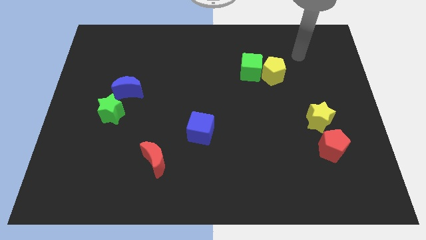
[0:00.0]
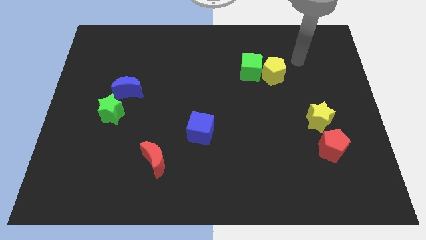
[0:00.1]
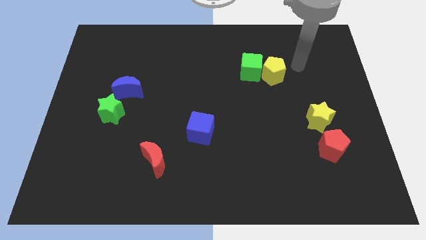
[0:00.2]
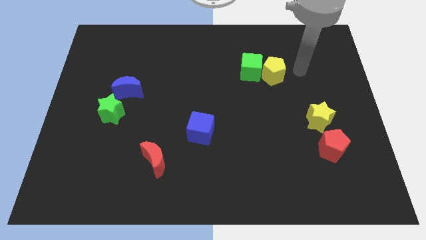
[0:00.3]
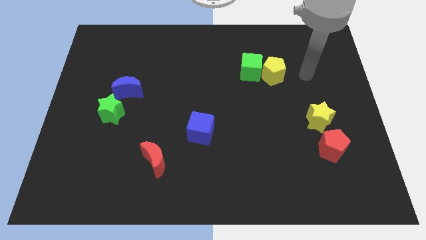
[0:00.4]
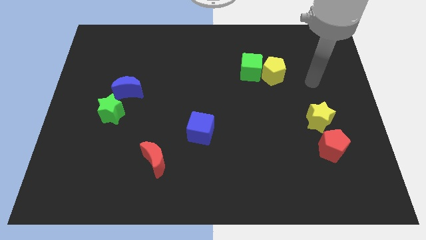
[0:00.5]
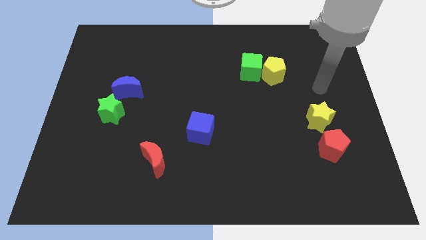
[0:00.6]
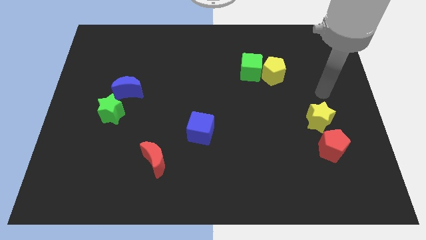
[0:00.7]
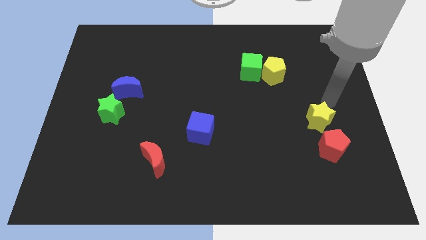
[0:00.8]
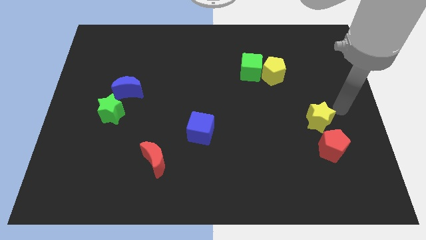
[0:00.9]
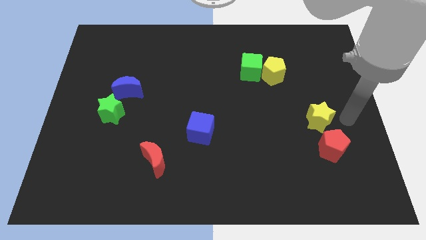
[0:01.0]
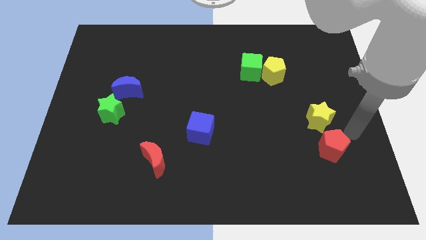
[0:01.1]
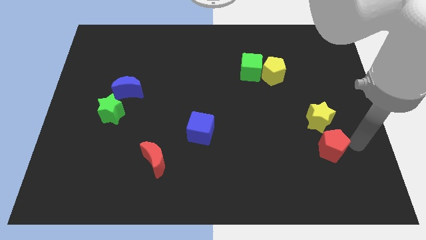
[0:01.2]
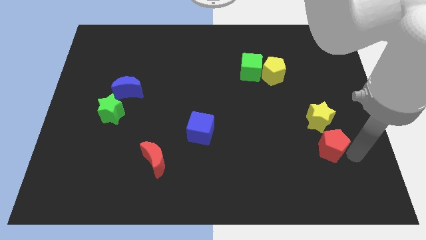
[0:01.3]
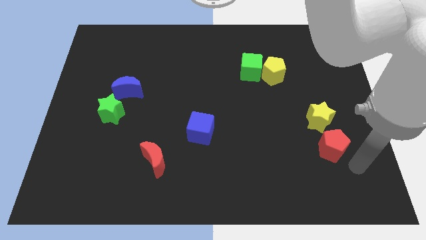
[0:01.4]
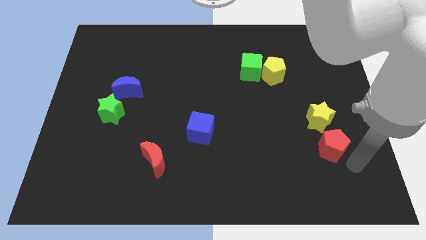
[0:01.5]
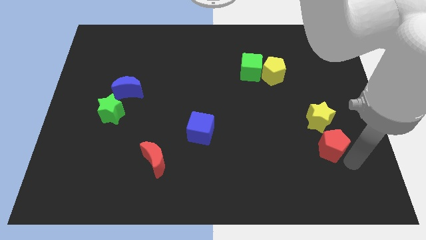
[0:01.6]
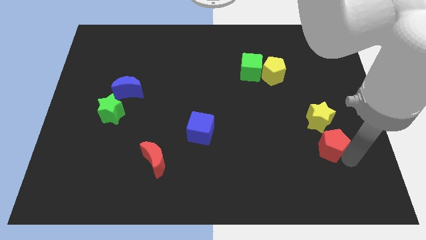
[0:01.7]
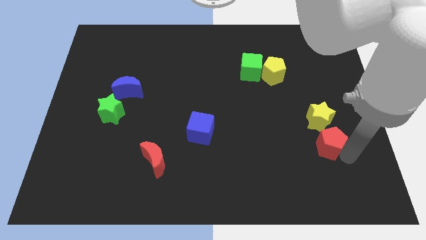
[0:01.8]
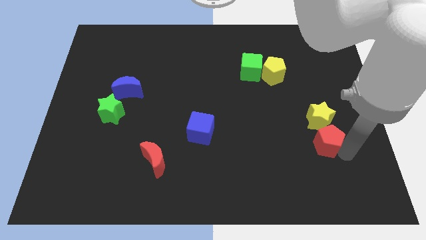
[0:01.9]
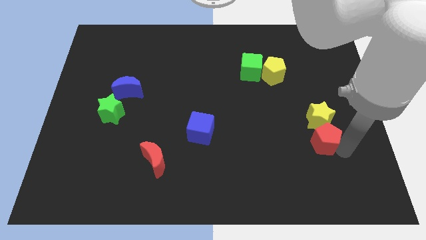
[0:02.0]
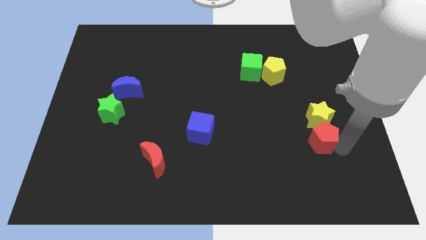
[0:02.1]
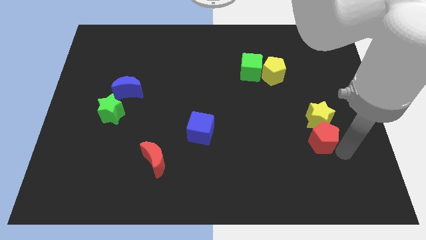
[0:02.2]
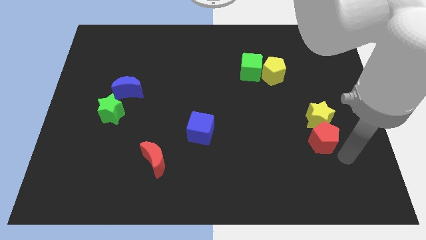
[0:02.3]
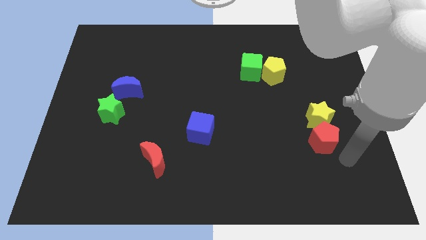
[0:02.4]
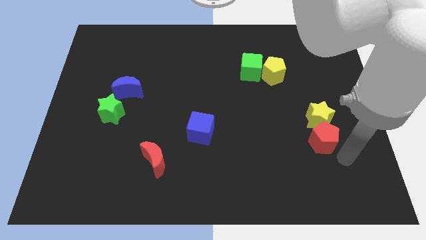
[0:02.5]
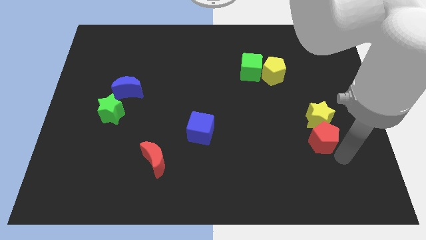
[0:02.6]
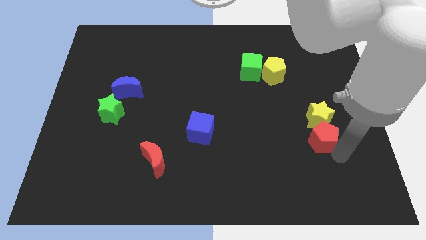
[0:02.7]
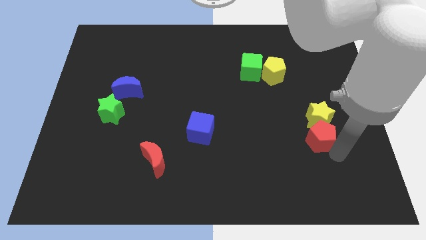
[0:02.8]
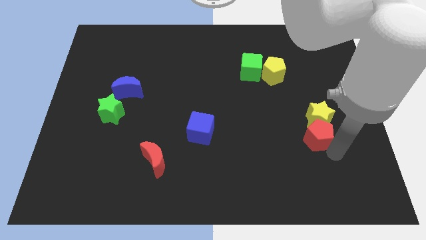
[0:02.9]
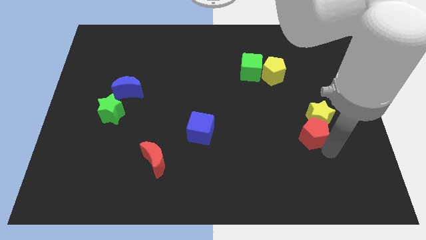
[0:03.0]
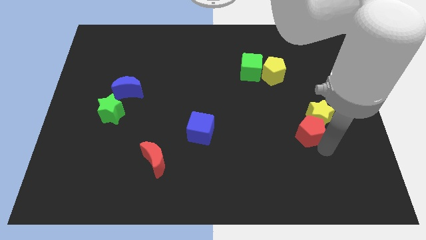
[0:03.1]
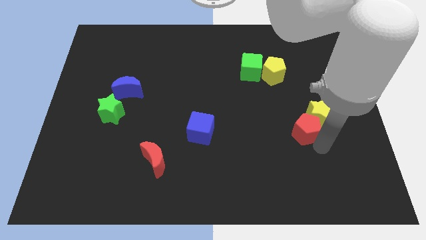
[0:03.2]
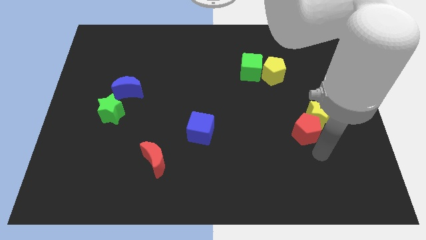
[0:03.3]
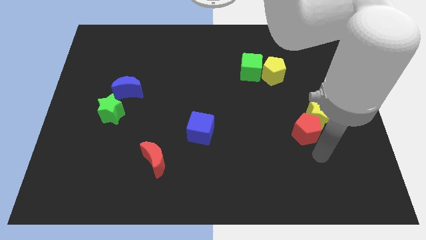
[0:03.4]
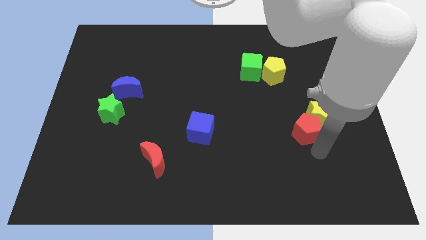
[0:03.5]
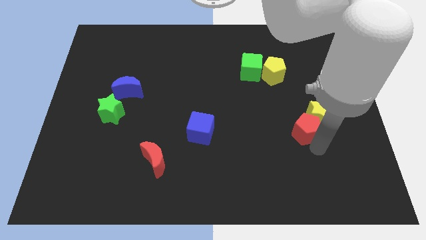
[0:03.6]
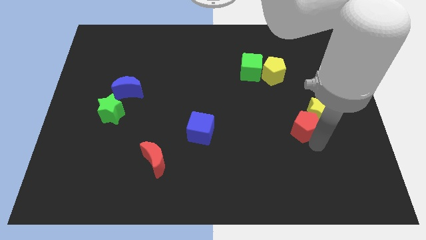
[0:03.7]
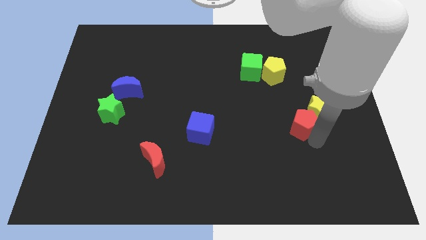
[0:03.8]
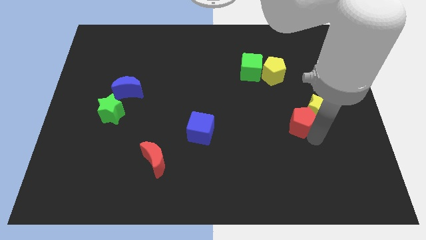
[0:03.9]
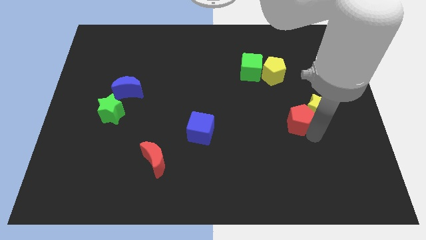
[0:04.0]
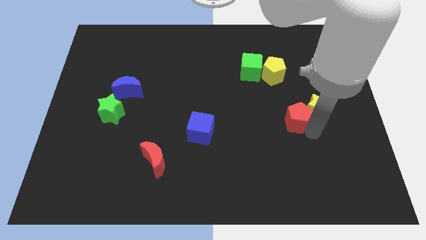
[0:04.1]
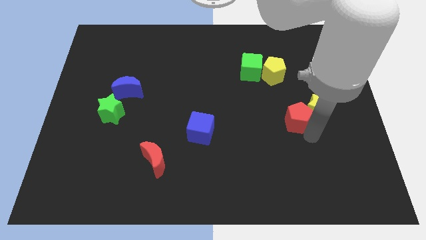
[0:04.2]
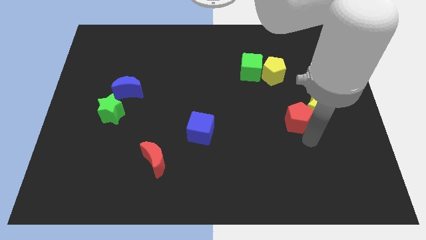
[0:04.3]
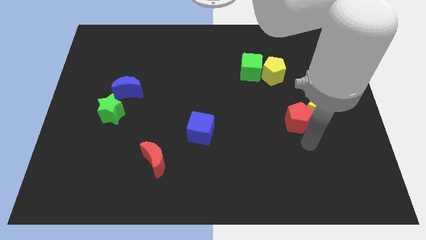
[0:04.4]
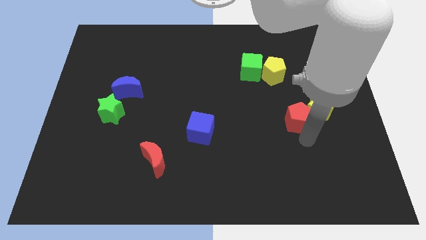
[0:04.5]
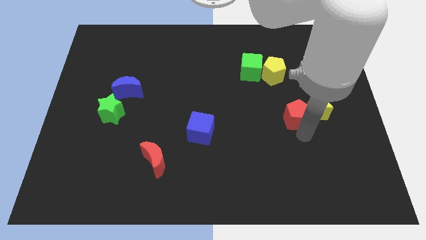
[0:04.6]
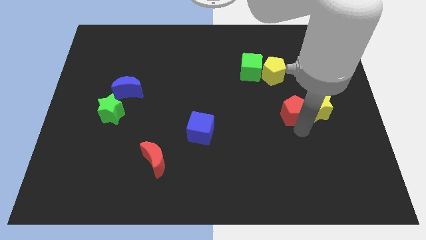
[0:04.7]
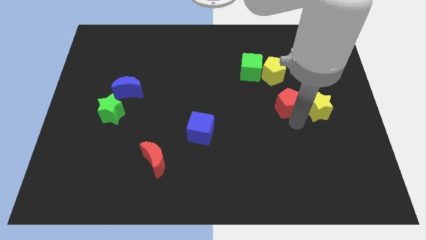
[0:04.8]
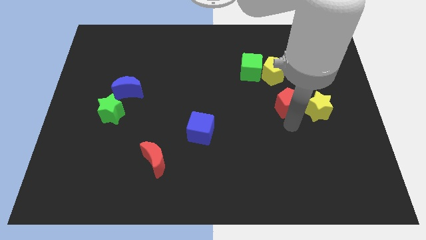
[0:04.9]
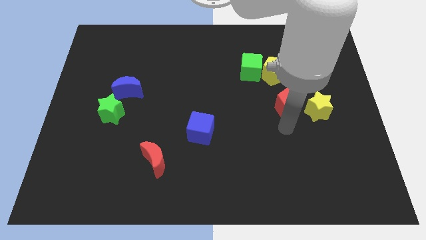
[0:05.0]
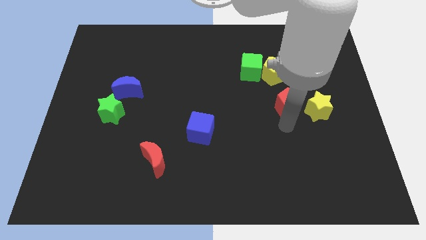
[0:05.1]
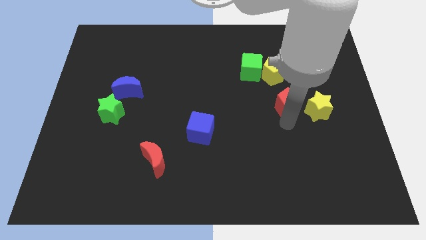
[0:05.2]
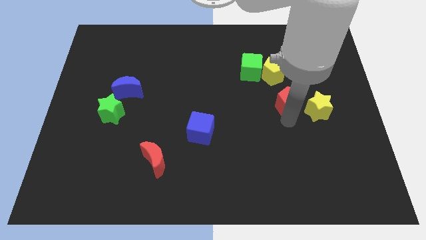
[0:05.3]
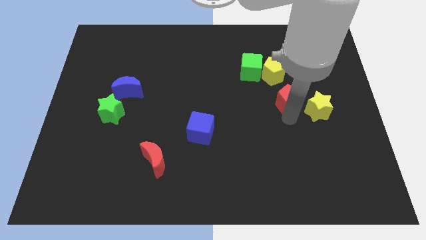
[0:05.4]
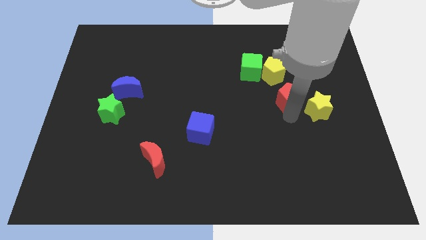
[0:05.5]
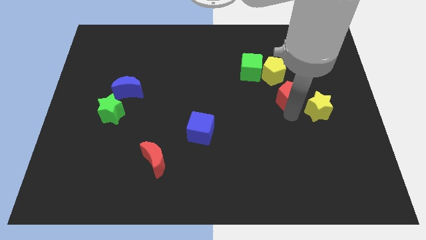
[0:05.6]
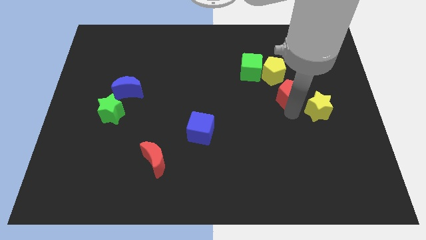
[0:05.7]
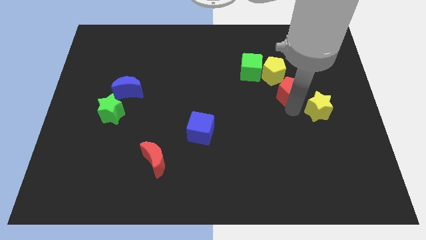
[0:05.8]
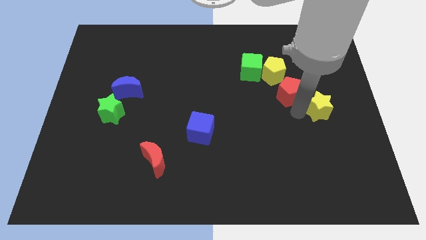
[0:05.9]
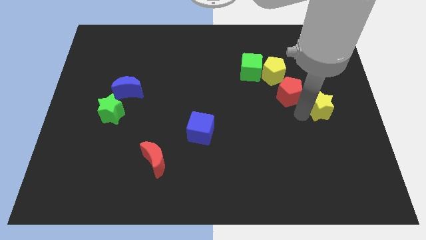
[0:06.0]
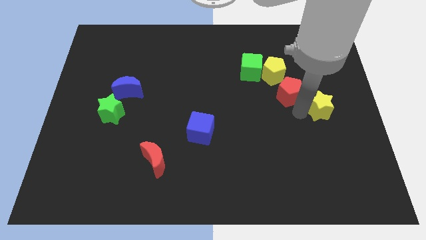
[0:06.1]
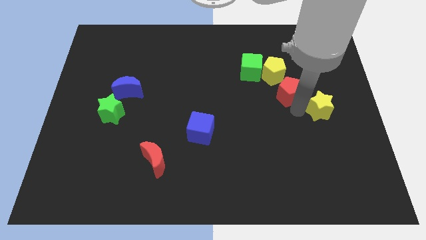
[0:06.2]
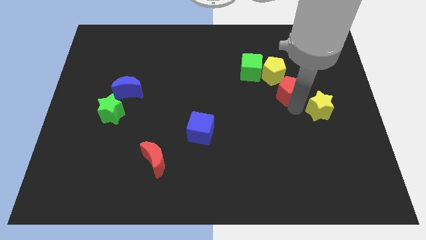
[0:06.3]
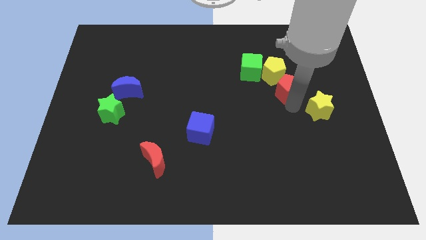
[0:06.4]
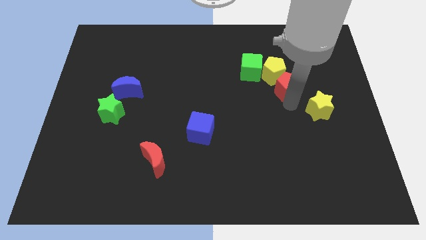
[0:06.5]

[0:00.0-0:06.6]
move the red pentagon to the yellow pentagon

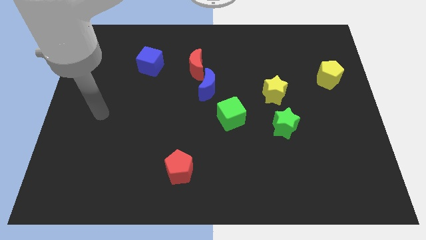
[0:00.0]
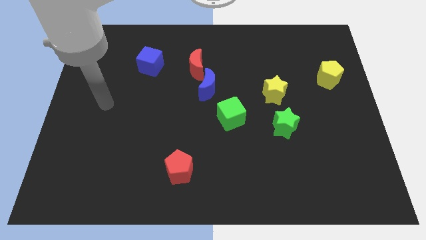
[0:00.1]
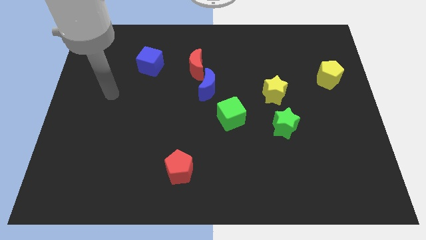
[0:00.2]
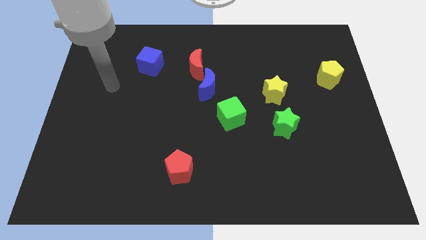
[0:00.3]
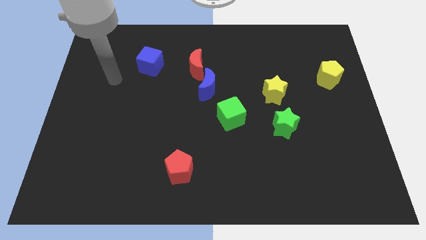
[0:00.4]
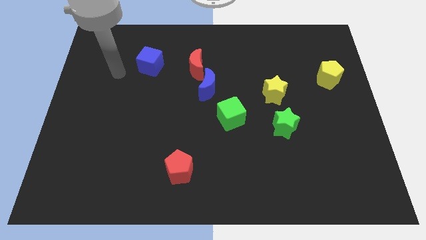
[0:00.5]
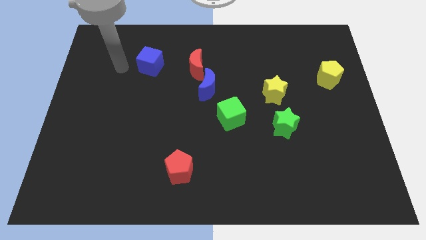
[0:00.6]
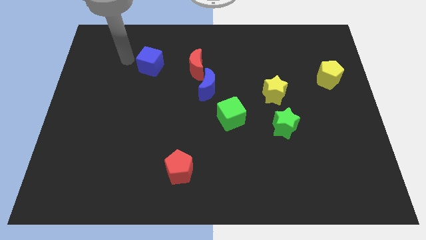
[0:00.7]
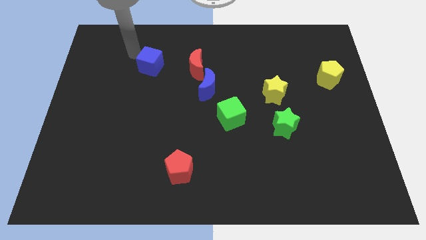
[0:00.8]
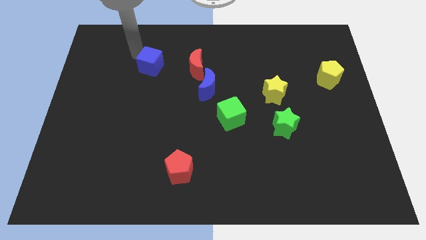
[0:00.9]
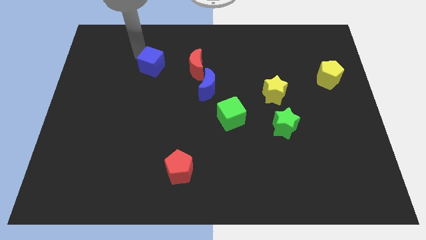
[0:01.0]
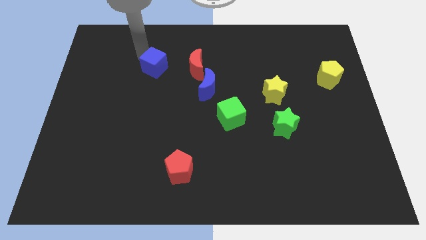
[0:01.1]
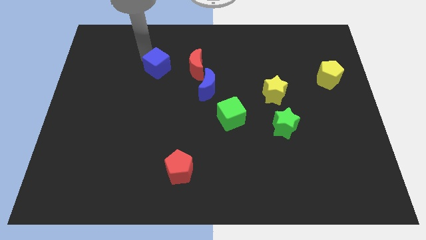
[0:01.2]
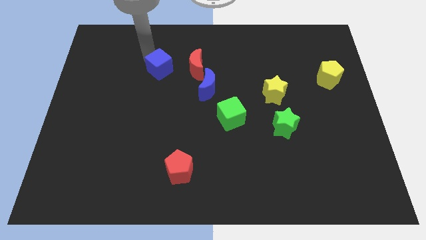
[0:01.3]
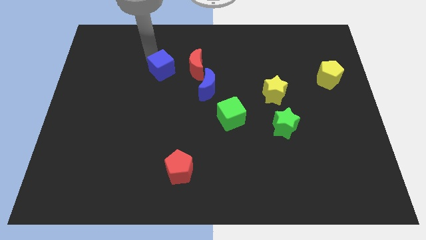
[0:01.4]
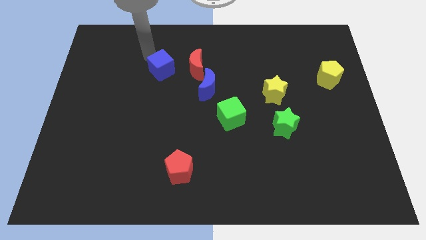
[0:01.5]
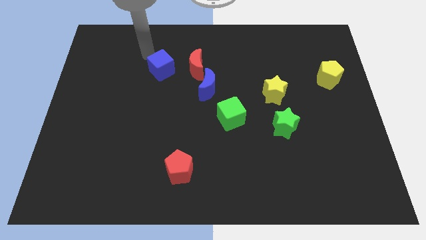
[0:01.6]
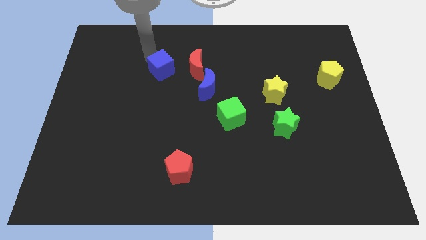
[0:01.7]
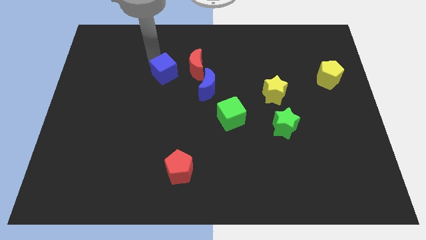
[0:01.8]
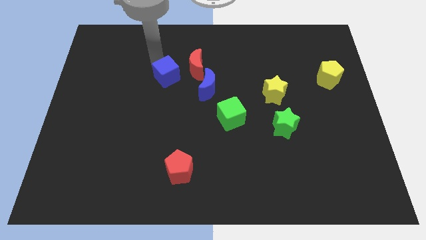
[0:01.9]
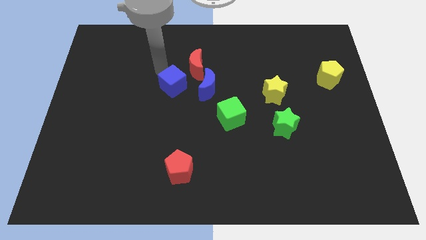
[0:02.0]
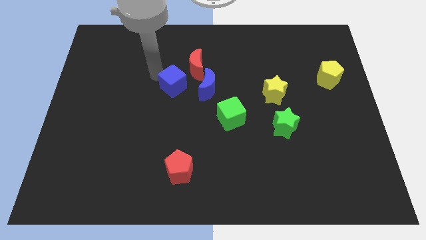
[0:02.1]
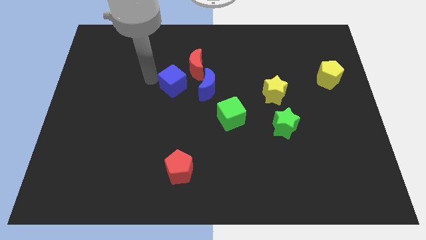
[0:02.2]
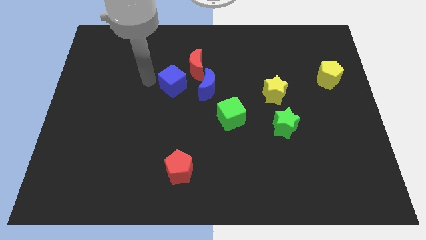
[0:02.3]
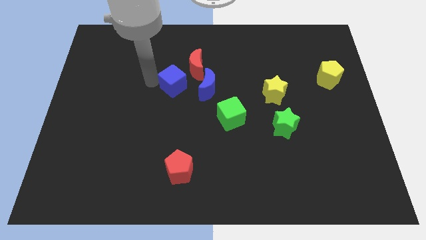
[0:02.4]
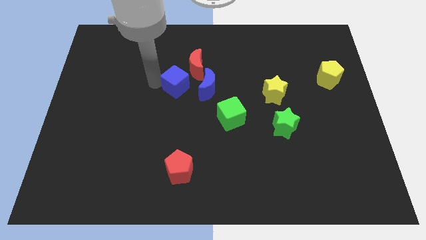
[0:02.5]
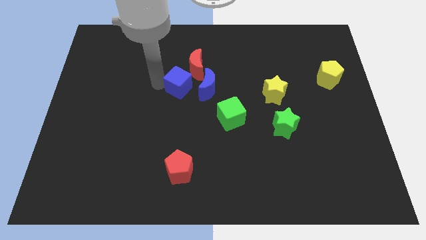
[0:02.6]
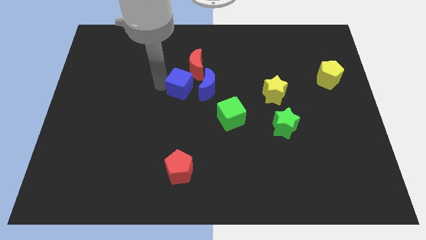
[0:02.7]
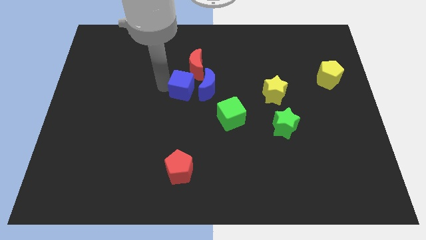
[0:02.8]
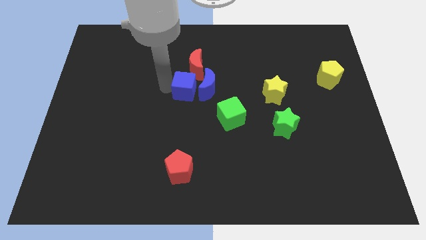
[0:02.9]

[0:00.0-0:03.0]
move the blue cube to the blue moon
